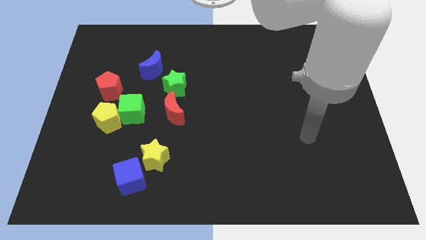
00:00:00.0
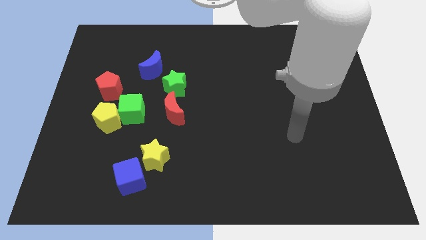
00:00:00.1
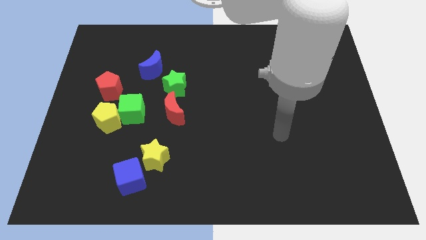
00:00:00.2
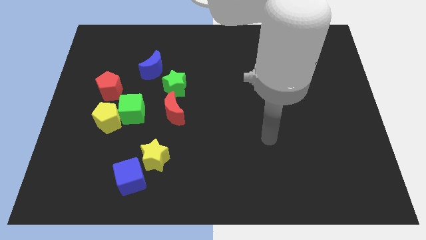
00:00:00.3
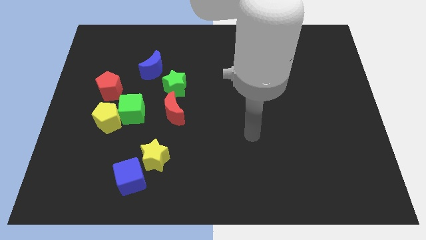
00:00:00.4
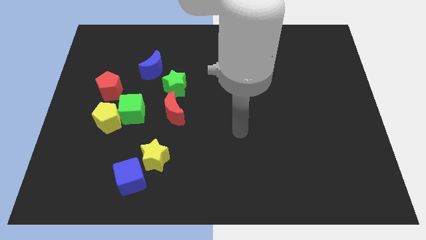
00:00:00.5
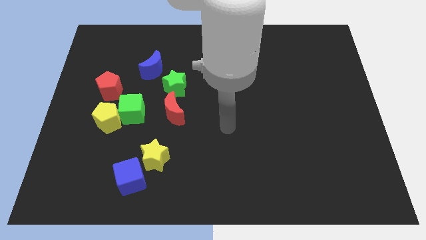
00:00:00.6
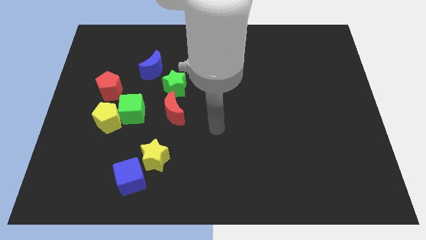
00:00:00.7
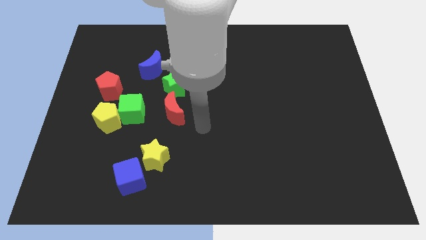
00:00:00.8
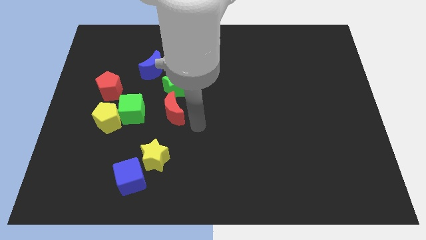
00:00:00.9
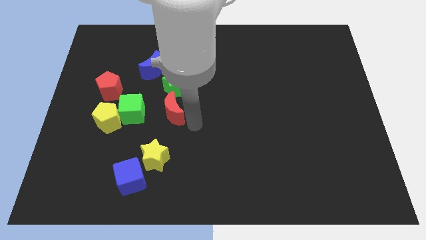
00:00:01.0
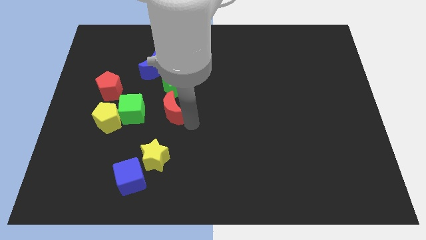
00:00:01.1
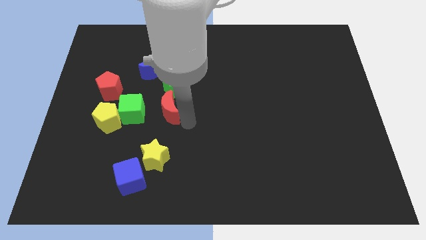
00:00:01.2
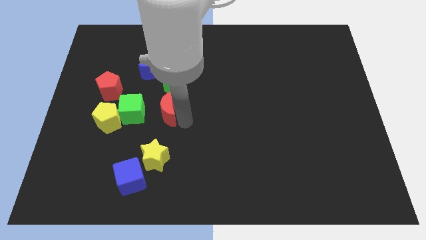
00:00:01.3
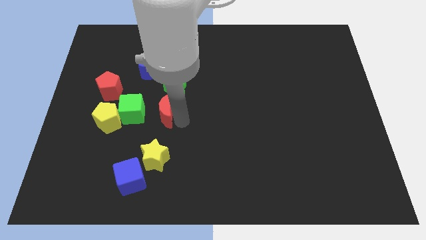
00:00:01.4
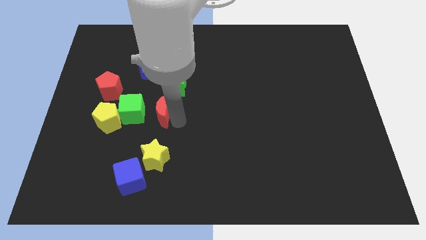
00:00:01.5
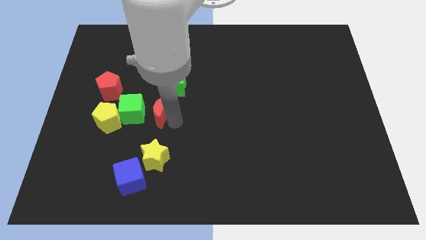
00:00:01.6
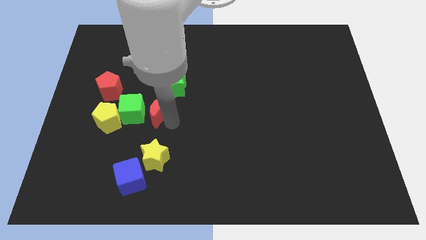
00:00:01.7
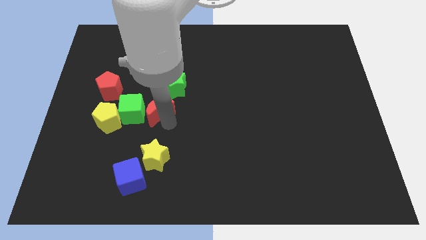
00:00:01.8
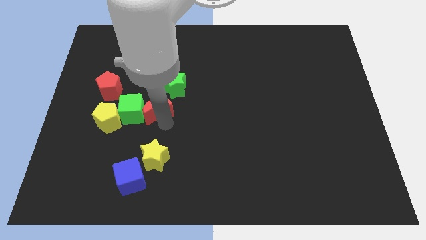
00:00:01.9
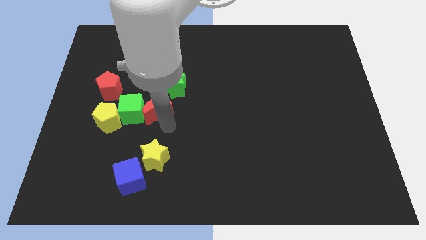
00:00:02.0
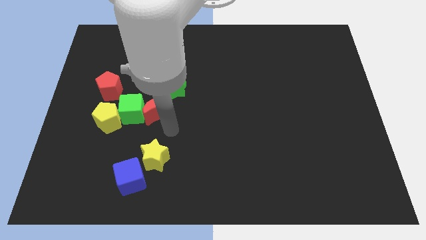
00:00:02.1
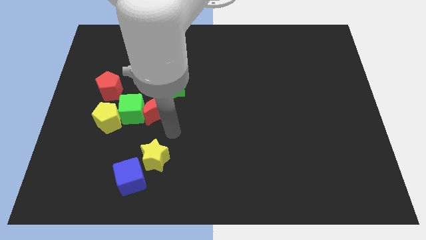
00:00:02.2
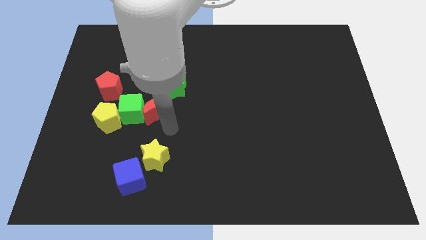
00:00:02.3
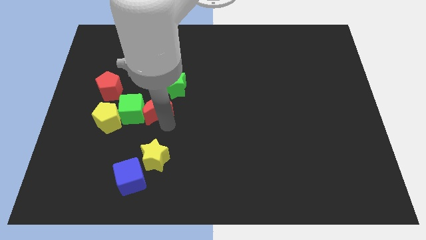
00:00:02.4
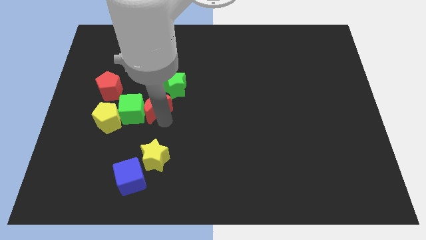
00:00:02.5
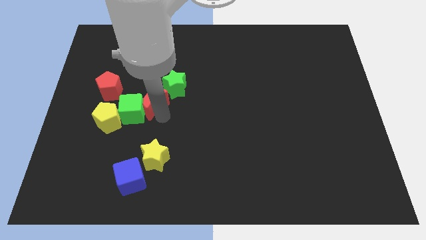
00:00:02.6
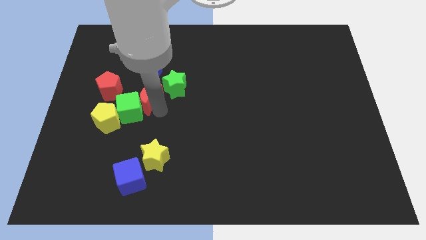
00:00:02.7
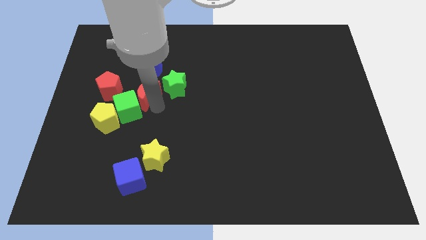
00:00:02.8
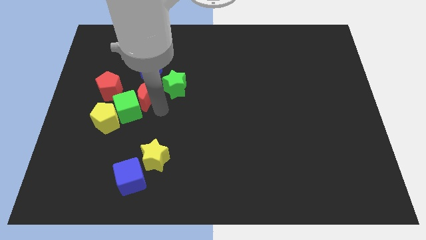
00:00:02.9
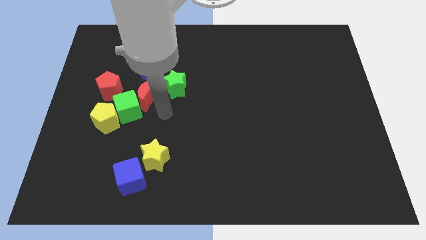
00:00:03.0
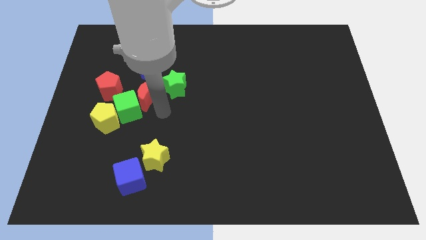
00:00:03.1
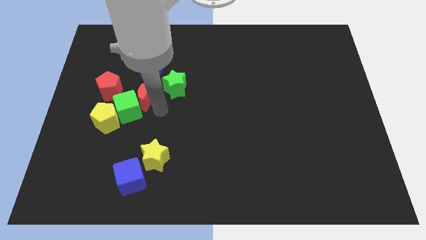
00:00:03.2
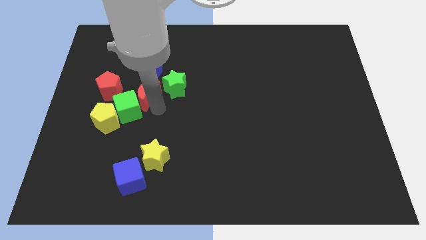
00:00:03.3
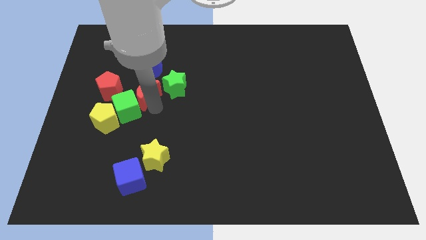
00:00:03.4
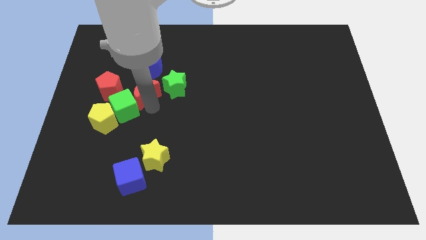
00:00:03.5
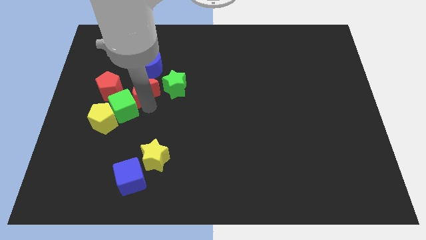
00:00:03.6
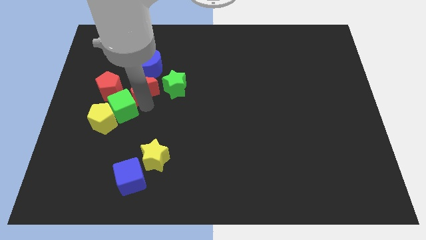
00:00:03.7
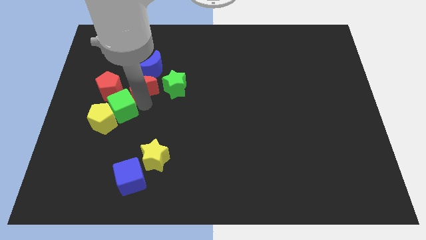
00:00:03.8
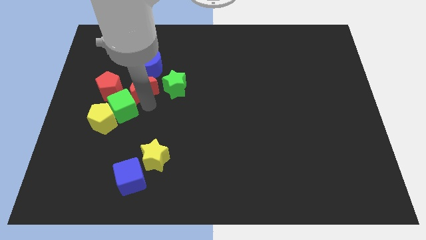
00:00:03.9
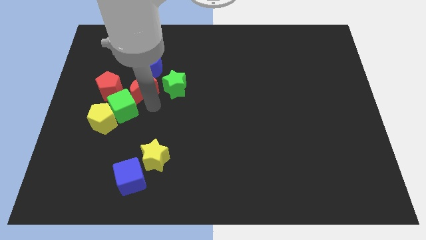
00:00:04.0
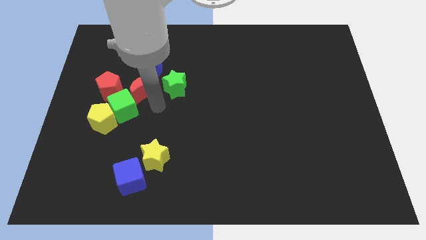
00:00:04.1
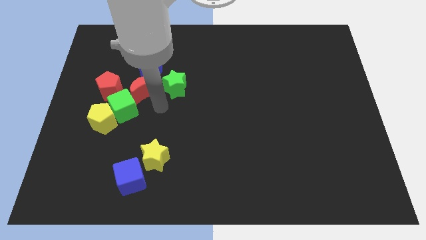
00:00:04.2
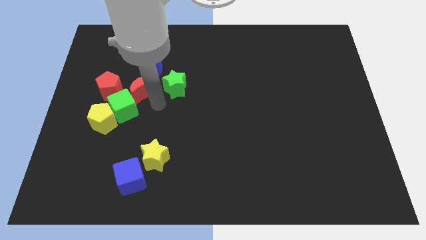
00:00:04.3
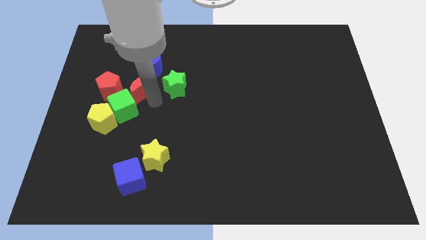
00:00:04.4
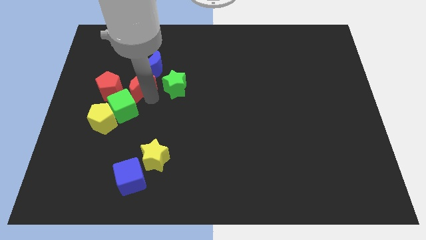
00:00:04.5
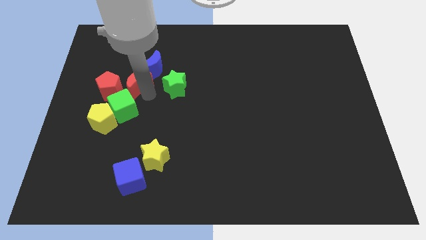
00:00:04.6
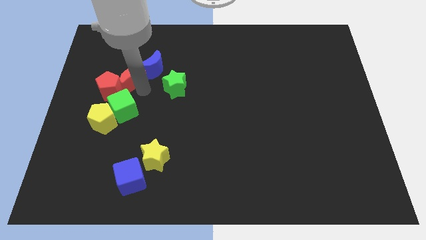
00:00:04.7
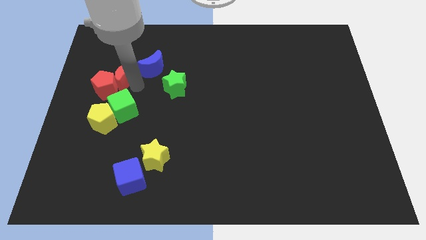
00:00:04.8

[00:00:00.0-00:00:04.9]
move the red moon to the top side of the red pentagon

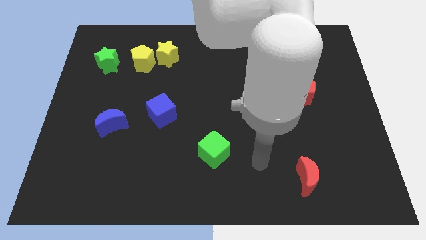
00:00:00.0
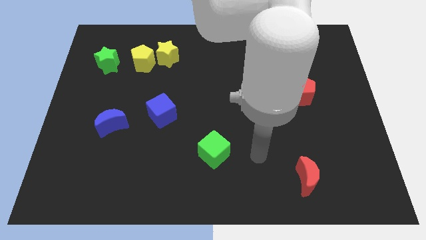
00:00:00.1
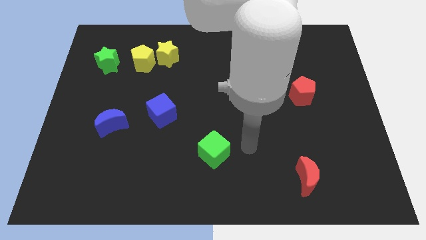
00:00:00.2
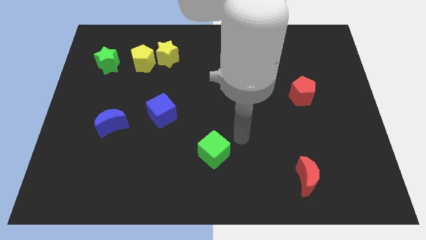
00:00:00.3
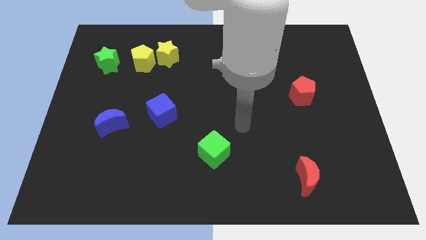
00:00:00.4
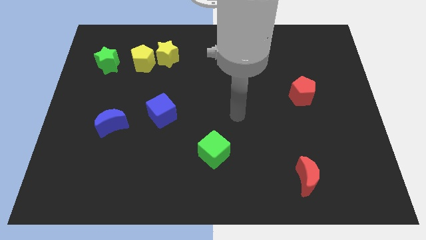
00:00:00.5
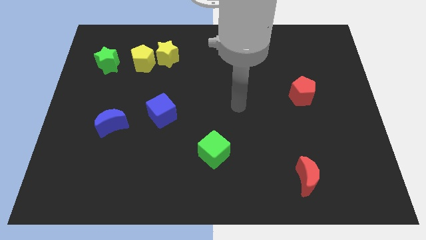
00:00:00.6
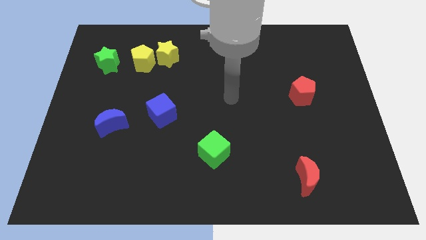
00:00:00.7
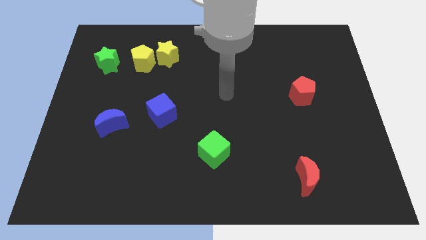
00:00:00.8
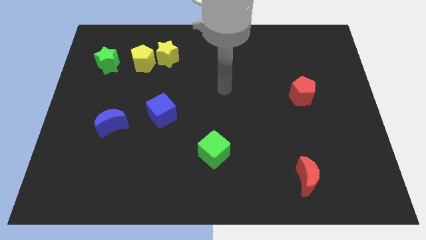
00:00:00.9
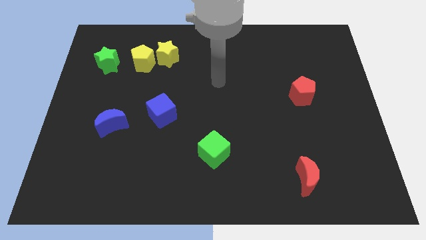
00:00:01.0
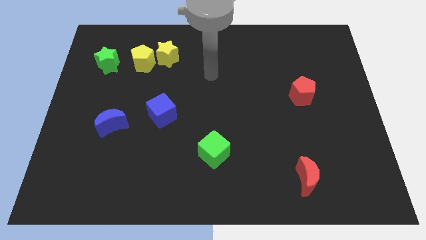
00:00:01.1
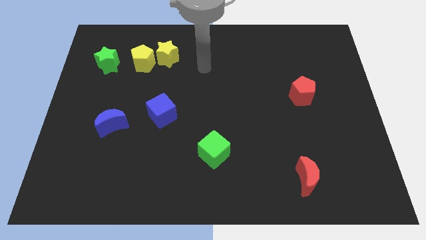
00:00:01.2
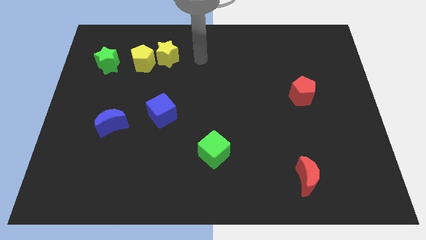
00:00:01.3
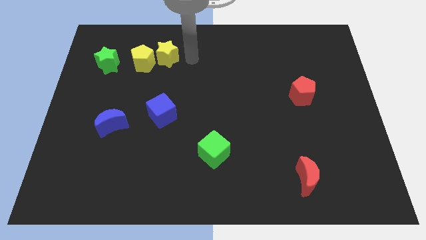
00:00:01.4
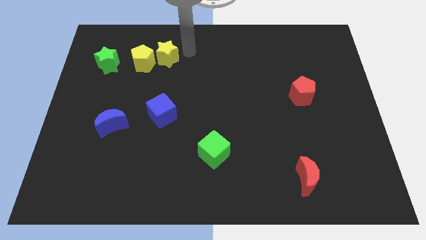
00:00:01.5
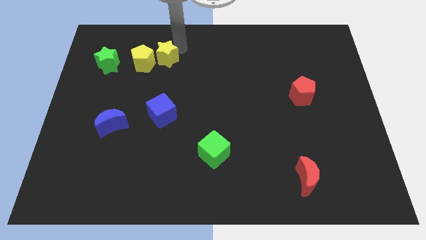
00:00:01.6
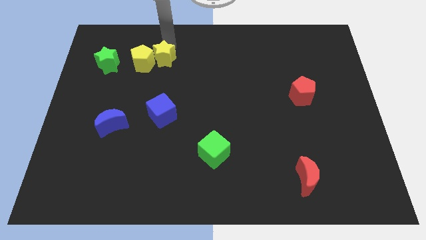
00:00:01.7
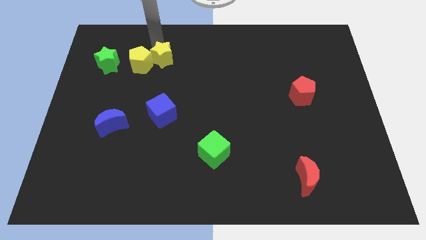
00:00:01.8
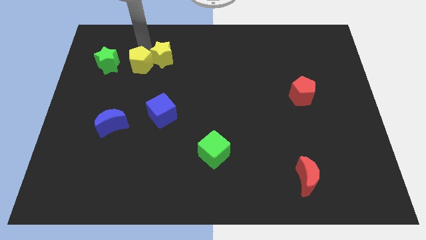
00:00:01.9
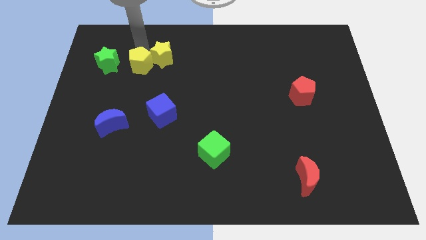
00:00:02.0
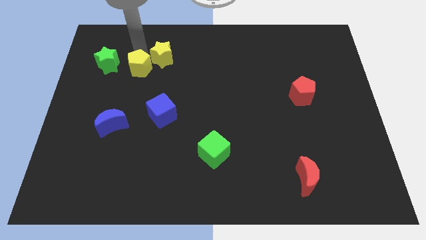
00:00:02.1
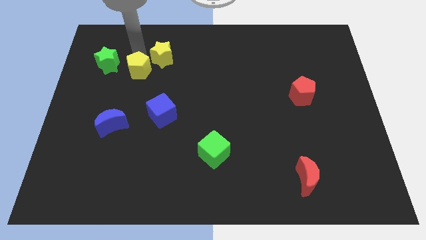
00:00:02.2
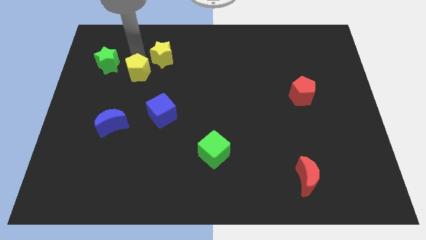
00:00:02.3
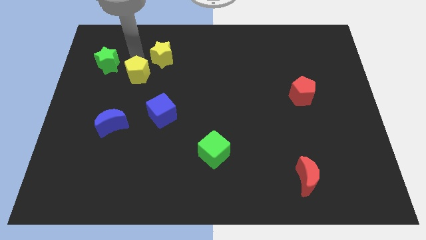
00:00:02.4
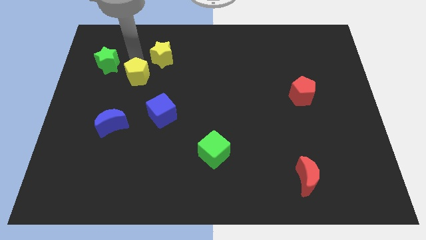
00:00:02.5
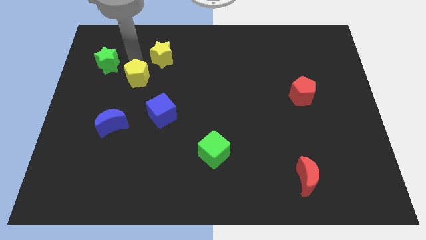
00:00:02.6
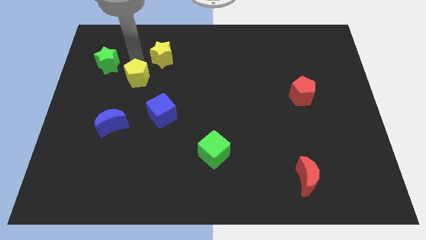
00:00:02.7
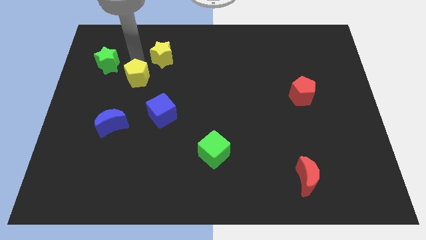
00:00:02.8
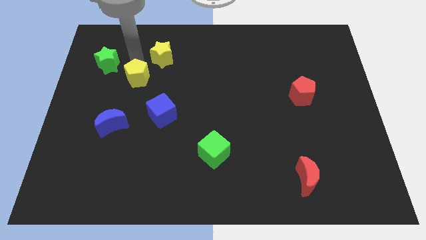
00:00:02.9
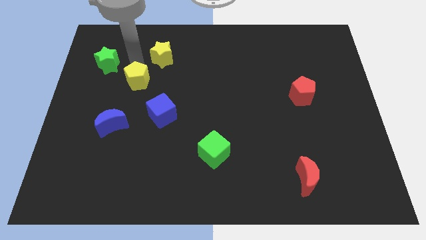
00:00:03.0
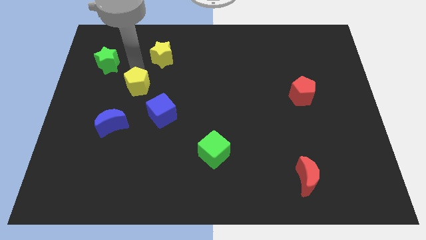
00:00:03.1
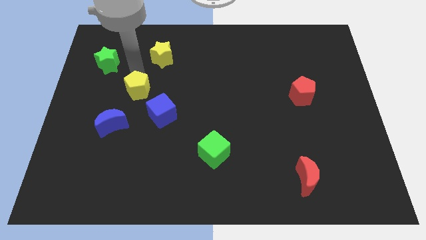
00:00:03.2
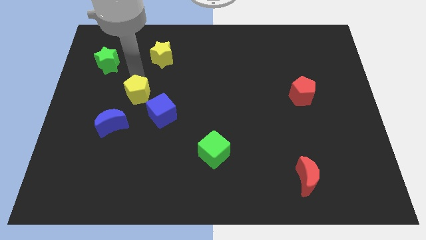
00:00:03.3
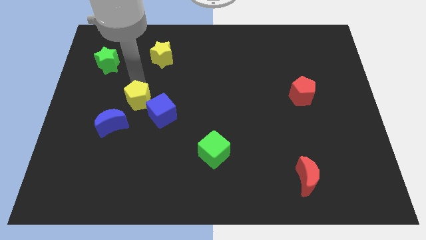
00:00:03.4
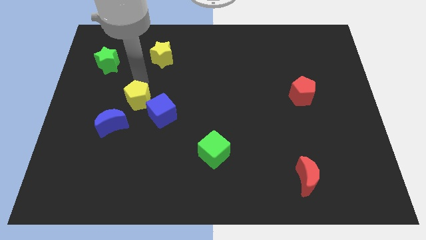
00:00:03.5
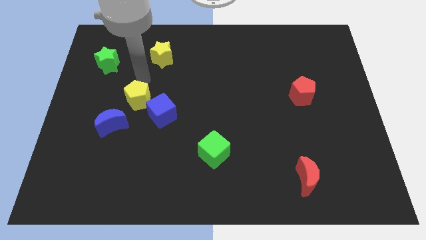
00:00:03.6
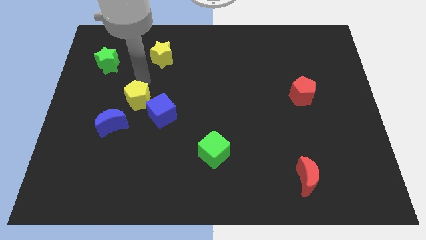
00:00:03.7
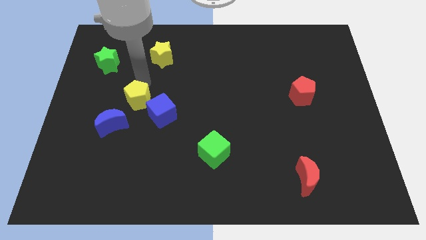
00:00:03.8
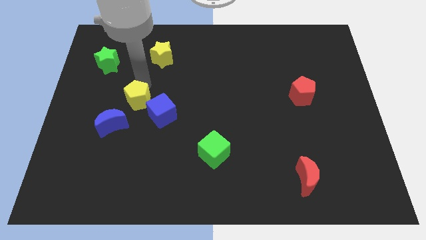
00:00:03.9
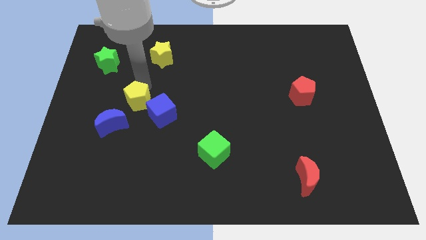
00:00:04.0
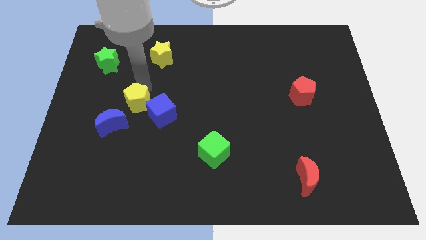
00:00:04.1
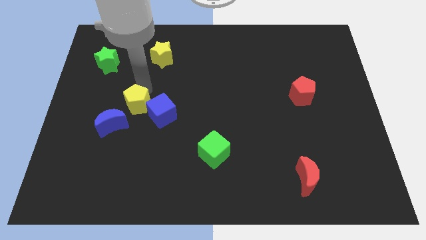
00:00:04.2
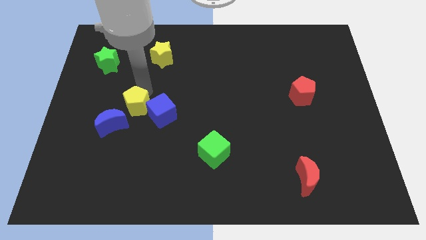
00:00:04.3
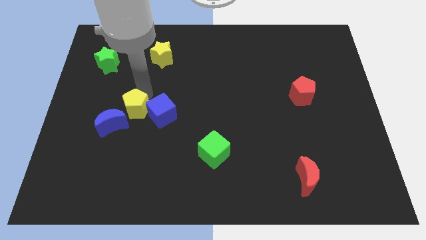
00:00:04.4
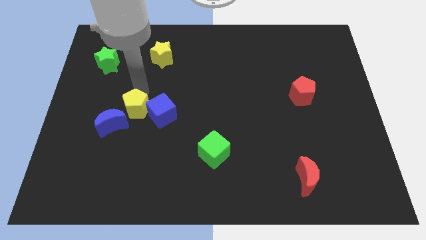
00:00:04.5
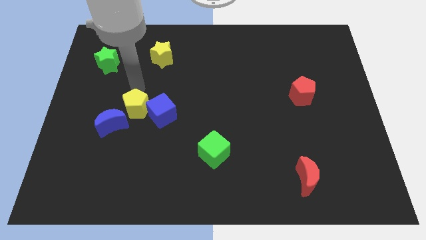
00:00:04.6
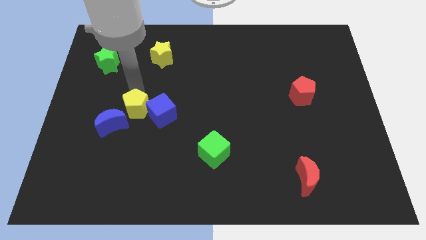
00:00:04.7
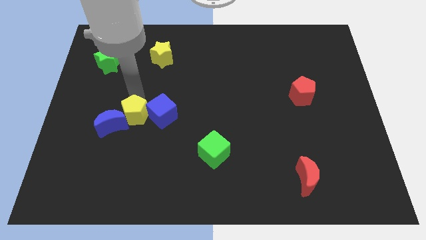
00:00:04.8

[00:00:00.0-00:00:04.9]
put the yellow pentagon diagonally down and to the left of the blue cube
